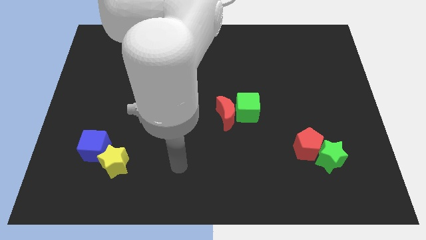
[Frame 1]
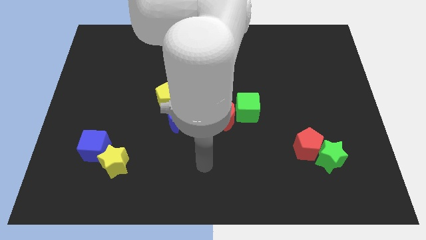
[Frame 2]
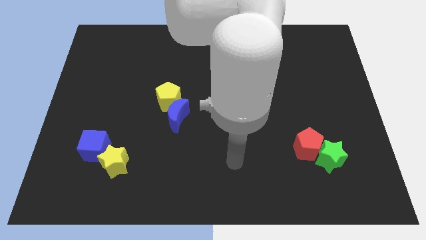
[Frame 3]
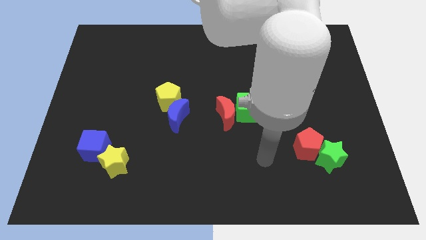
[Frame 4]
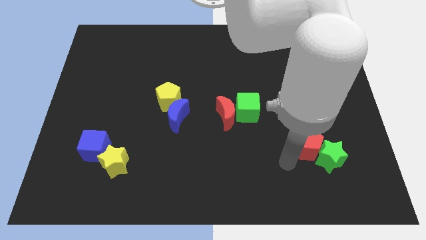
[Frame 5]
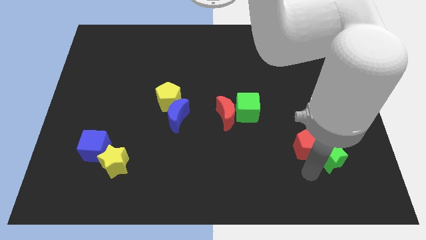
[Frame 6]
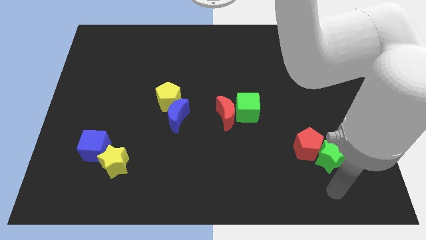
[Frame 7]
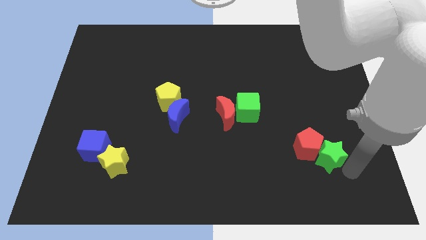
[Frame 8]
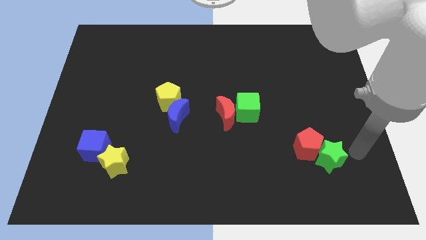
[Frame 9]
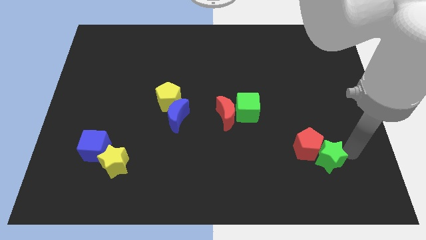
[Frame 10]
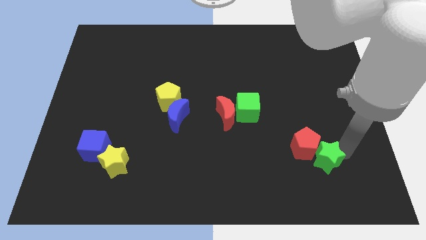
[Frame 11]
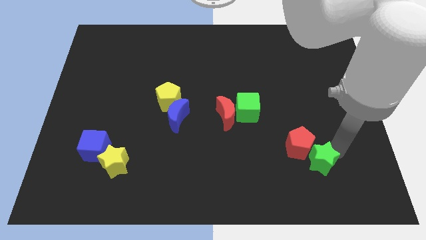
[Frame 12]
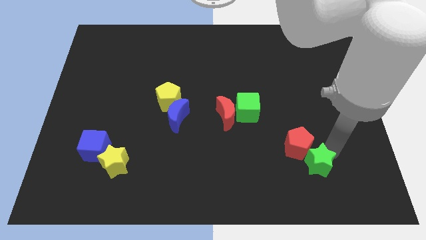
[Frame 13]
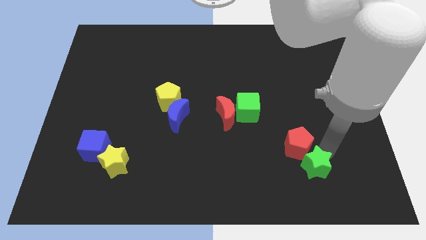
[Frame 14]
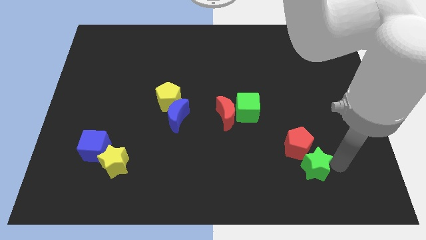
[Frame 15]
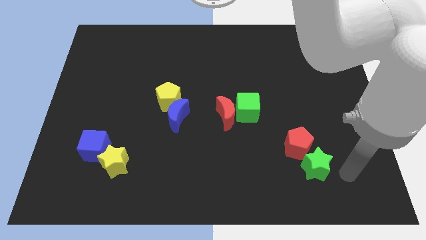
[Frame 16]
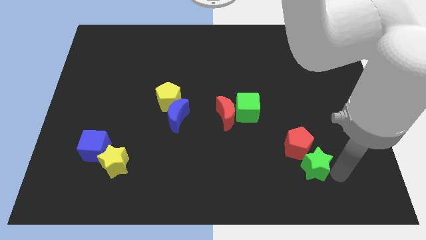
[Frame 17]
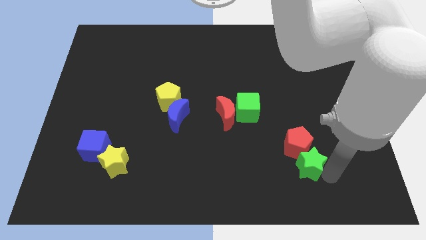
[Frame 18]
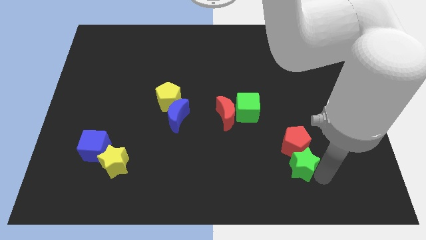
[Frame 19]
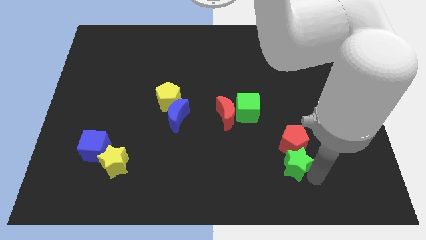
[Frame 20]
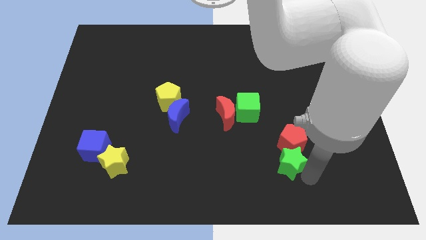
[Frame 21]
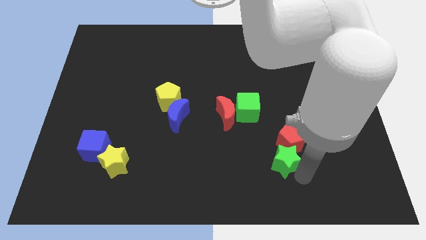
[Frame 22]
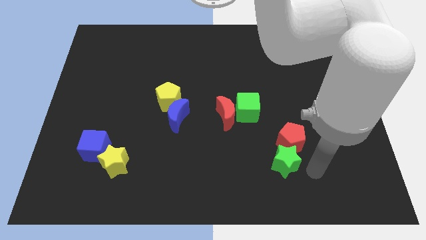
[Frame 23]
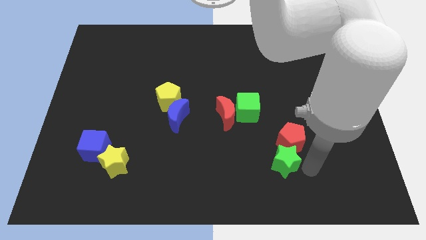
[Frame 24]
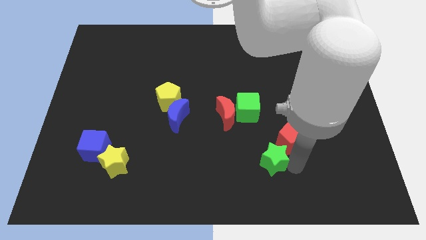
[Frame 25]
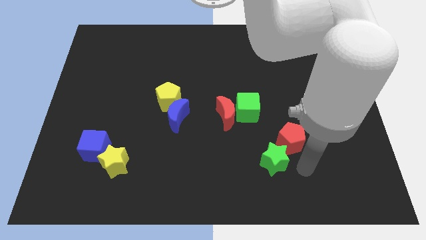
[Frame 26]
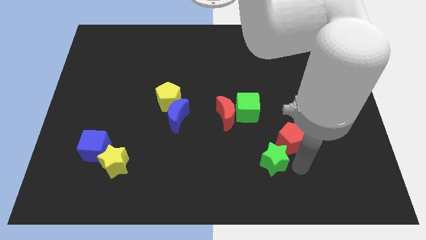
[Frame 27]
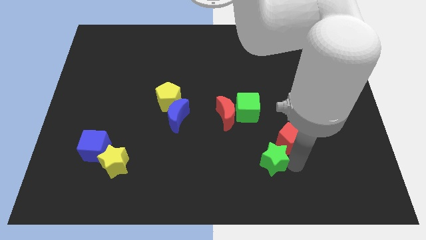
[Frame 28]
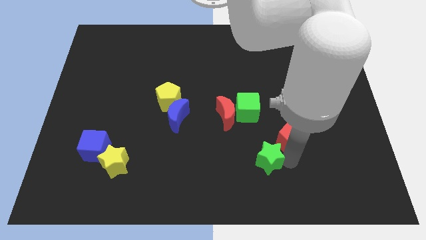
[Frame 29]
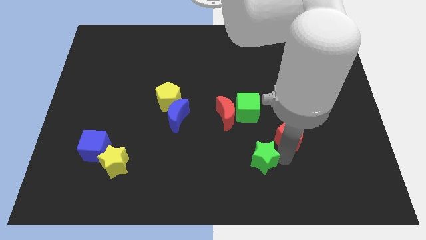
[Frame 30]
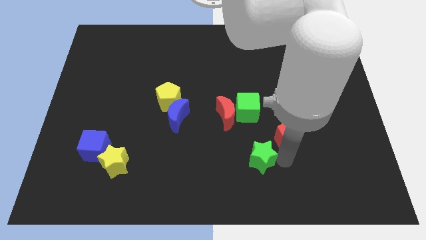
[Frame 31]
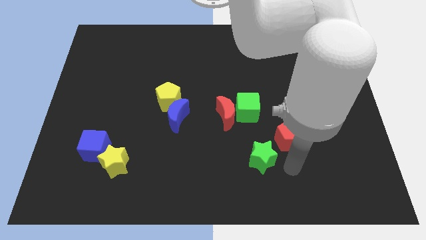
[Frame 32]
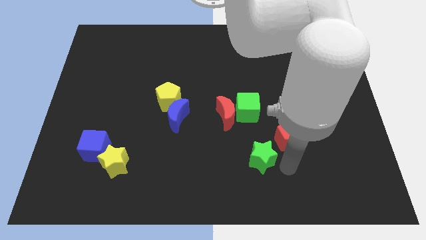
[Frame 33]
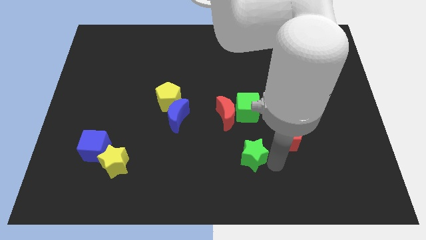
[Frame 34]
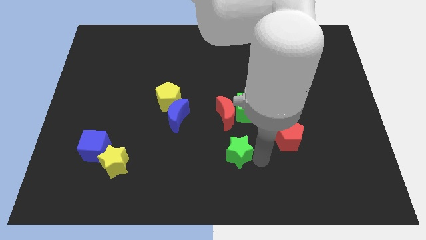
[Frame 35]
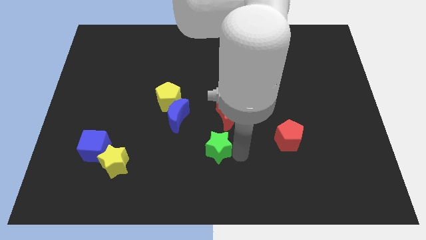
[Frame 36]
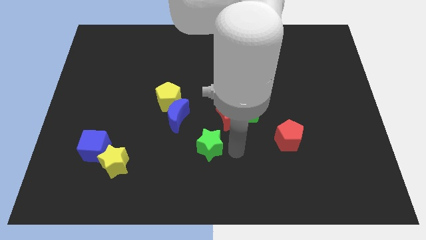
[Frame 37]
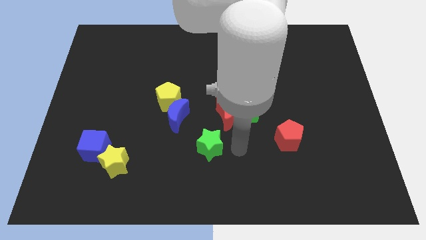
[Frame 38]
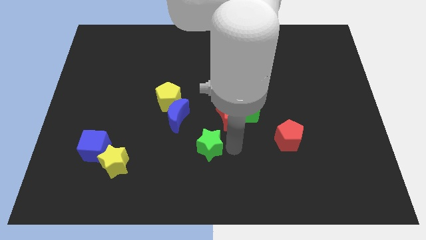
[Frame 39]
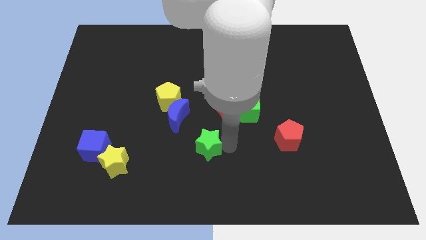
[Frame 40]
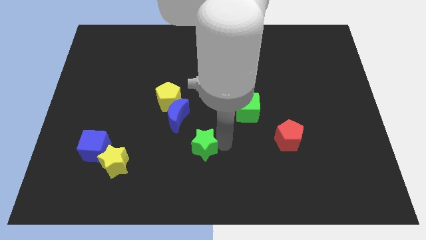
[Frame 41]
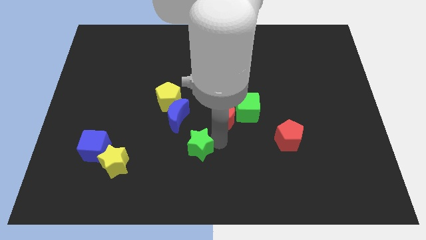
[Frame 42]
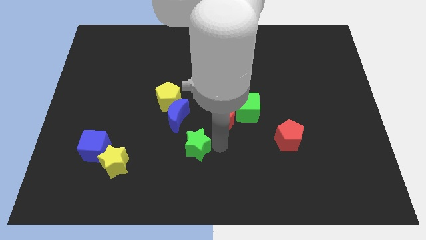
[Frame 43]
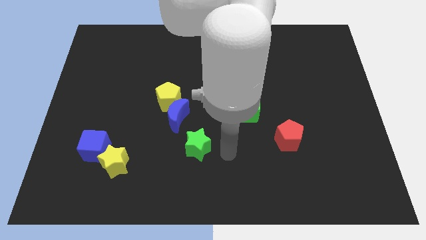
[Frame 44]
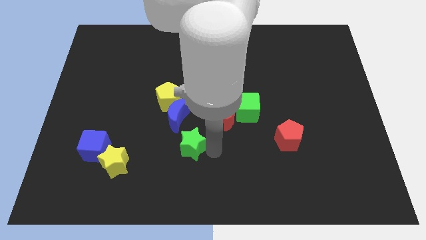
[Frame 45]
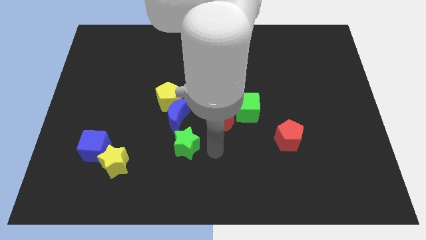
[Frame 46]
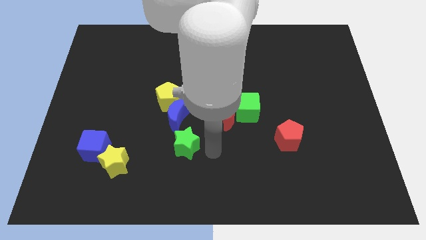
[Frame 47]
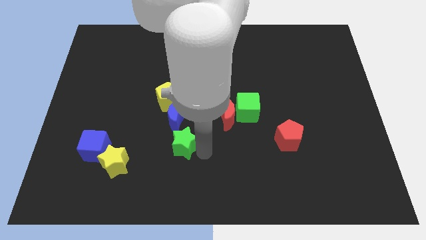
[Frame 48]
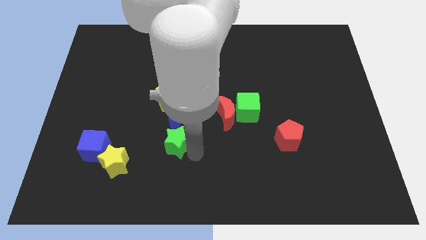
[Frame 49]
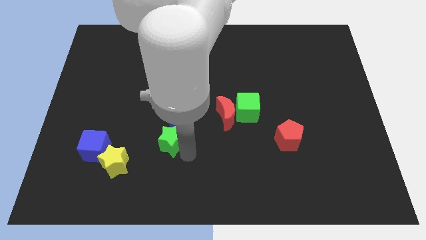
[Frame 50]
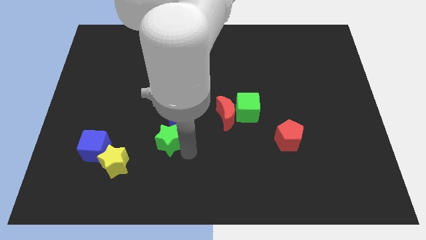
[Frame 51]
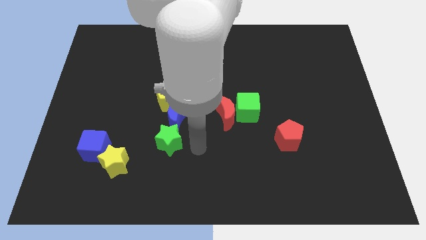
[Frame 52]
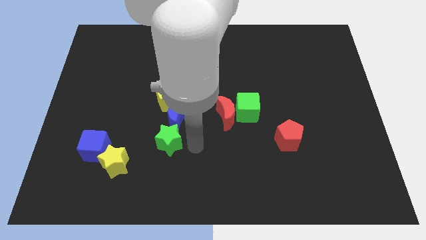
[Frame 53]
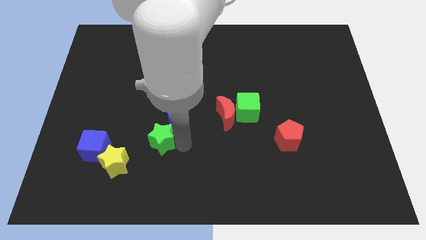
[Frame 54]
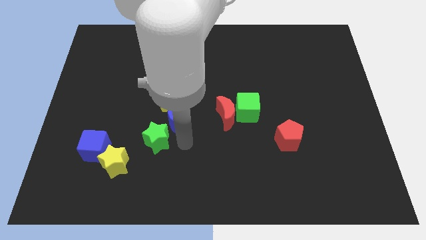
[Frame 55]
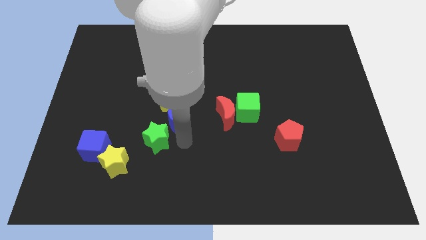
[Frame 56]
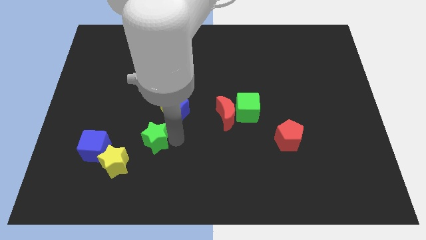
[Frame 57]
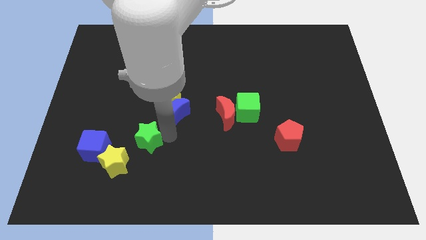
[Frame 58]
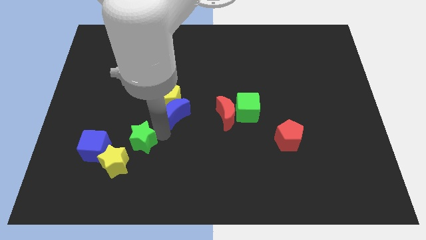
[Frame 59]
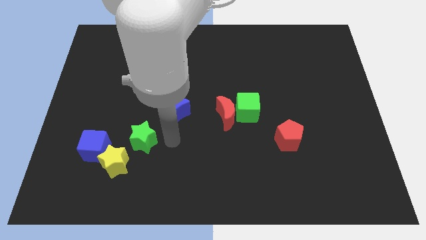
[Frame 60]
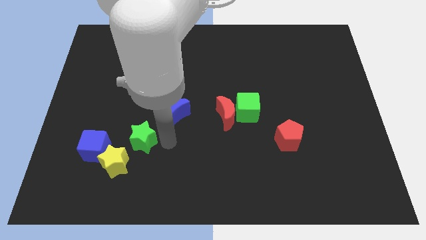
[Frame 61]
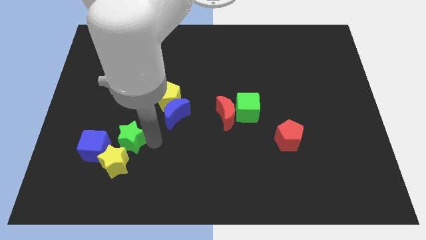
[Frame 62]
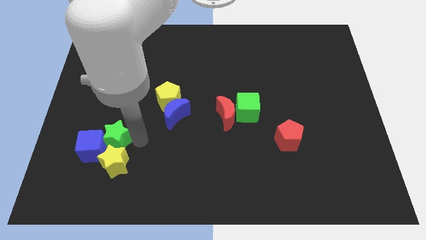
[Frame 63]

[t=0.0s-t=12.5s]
push the green star towards the blue cube

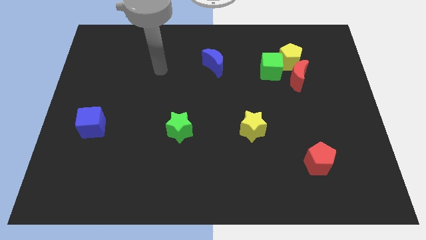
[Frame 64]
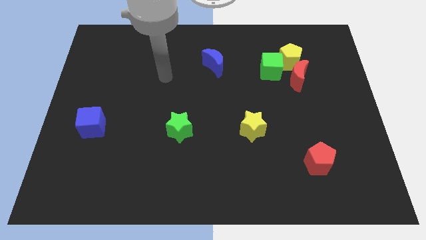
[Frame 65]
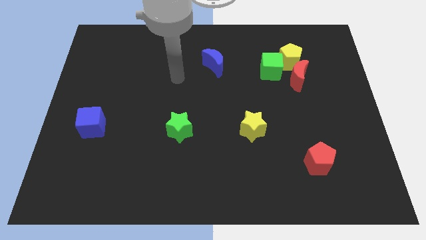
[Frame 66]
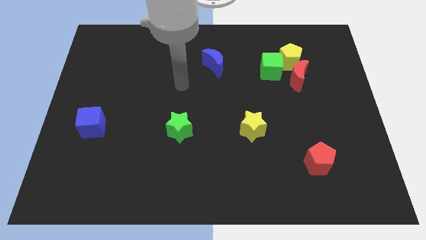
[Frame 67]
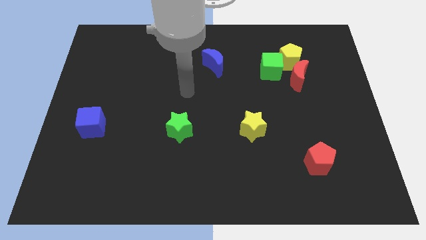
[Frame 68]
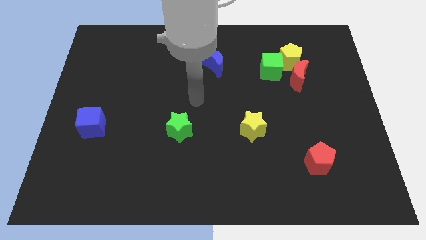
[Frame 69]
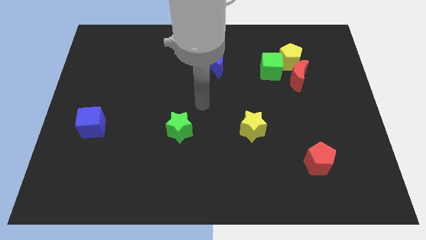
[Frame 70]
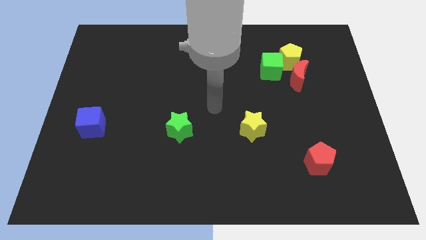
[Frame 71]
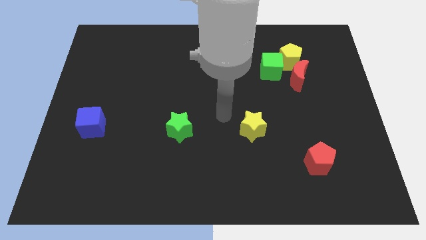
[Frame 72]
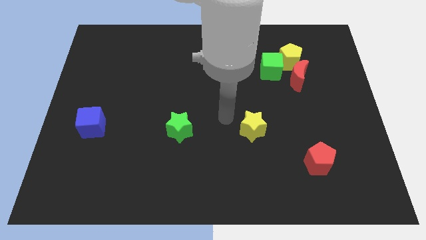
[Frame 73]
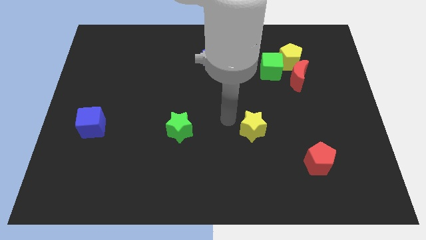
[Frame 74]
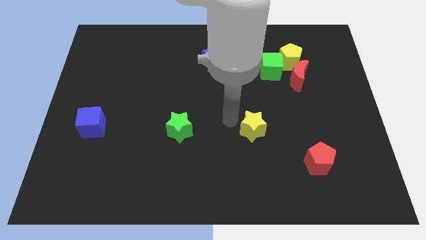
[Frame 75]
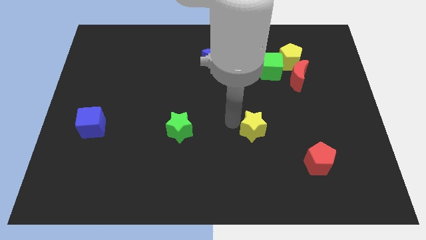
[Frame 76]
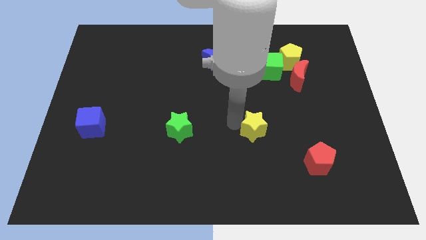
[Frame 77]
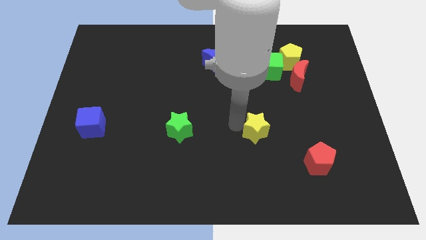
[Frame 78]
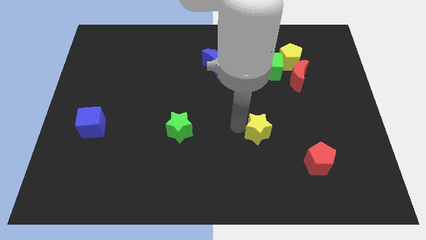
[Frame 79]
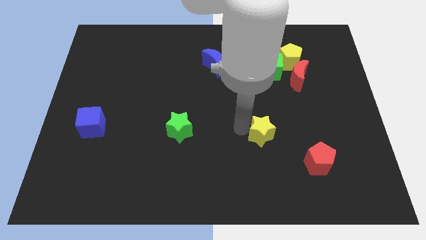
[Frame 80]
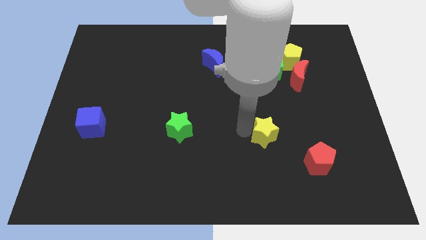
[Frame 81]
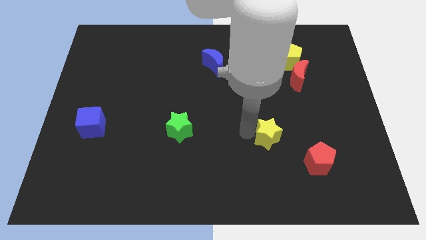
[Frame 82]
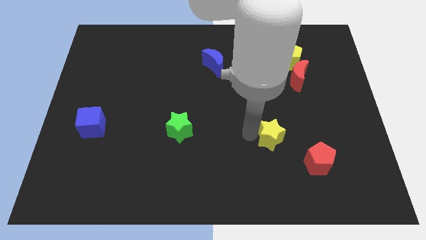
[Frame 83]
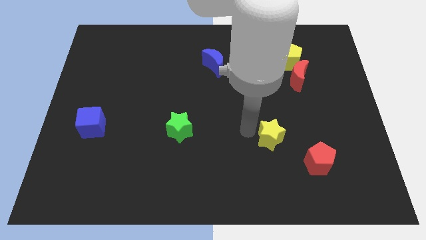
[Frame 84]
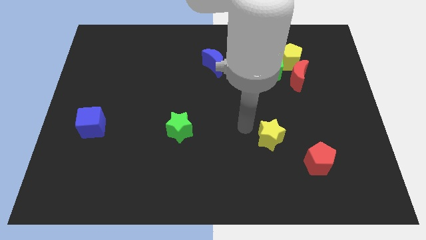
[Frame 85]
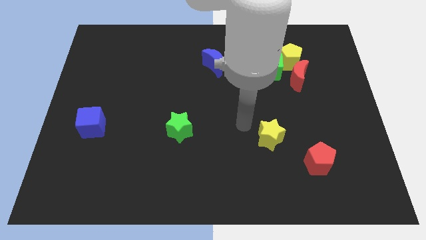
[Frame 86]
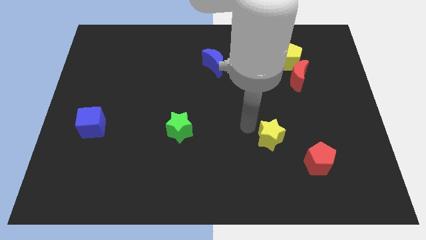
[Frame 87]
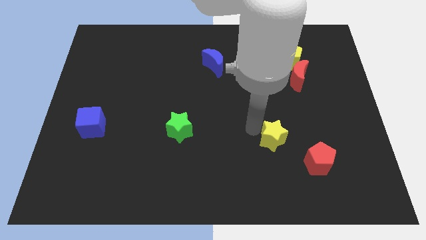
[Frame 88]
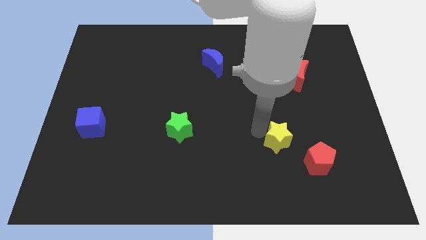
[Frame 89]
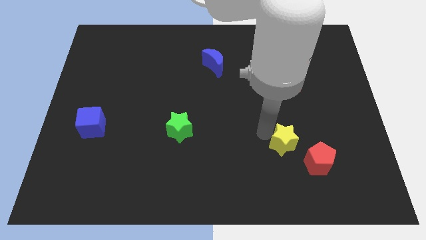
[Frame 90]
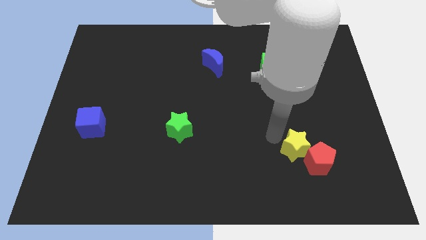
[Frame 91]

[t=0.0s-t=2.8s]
move the yellow star towards the red pentagon
